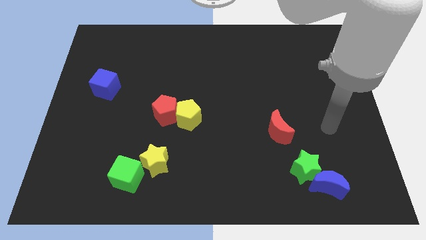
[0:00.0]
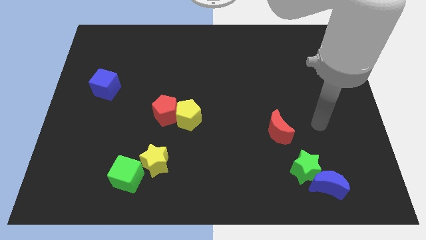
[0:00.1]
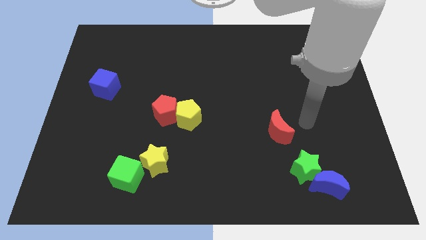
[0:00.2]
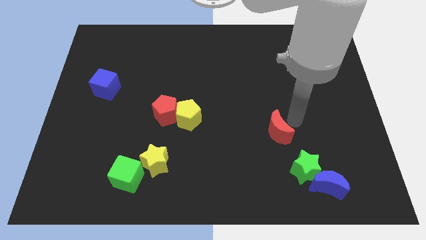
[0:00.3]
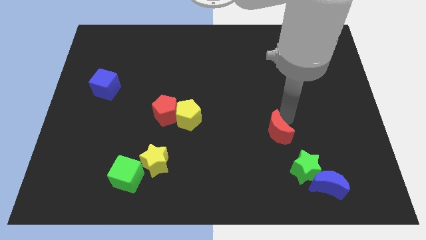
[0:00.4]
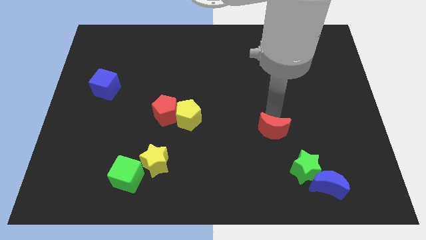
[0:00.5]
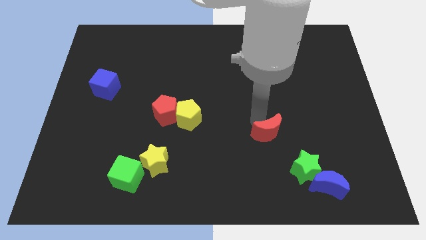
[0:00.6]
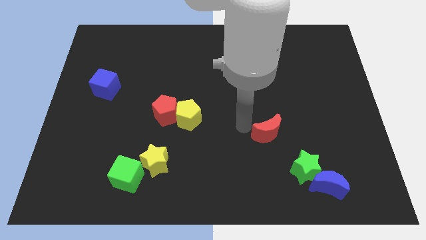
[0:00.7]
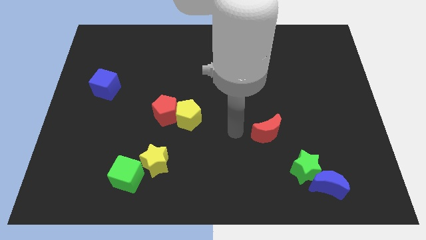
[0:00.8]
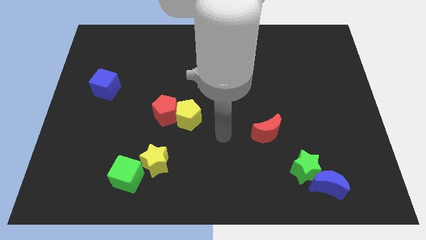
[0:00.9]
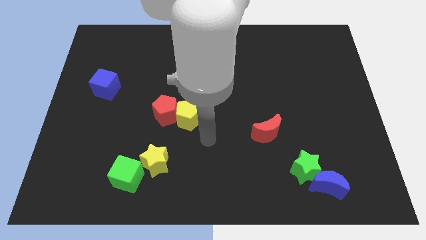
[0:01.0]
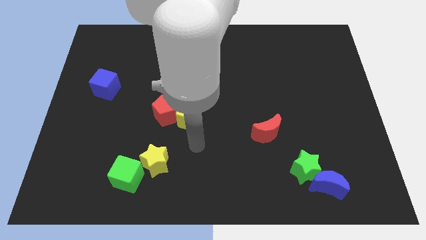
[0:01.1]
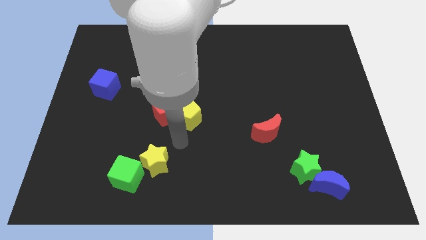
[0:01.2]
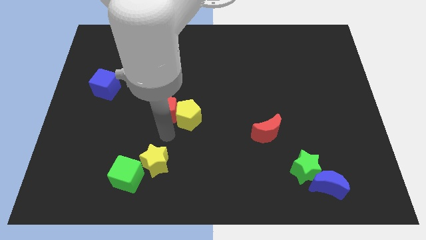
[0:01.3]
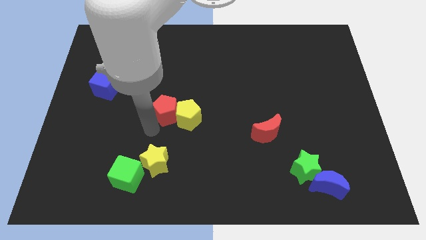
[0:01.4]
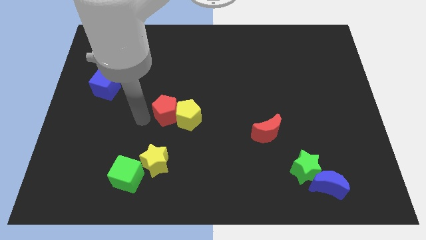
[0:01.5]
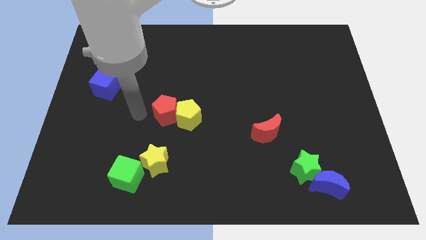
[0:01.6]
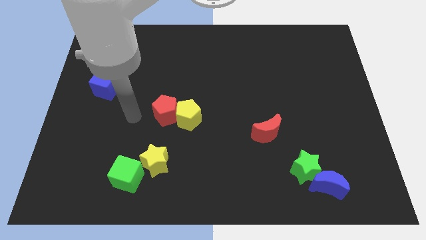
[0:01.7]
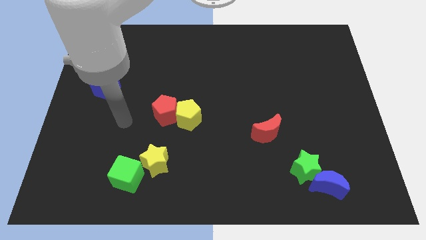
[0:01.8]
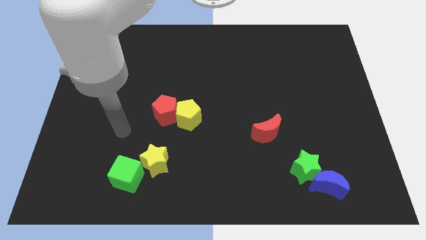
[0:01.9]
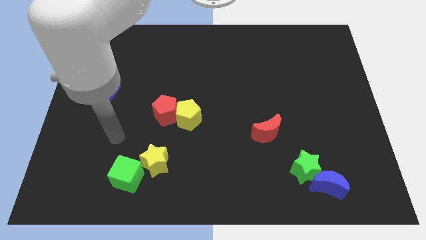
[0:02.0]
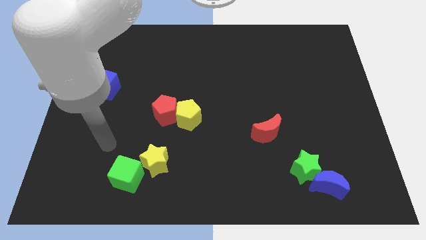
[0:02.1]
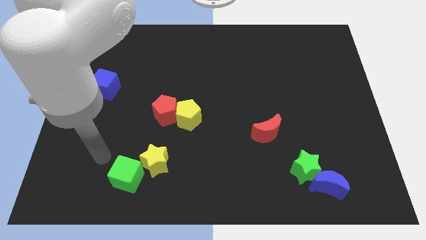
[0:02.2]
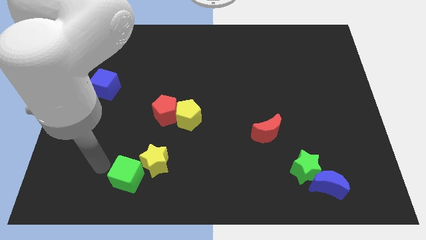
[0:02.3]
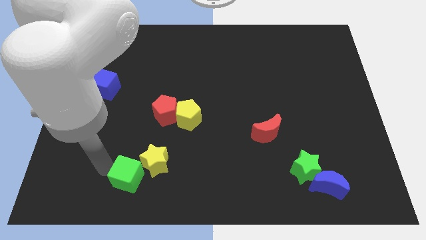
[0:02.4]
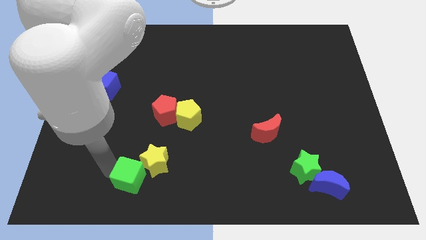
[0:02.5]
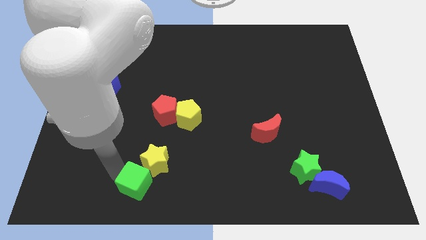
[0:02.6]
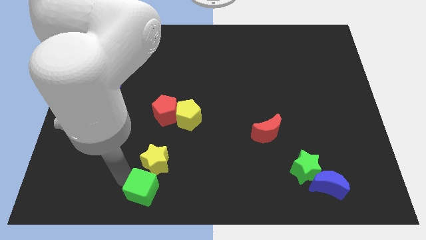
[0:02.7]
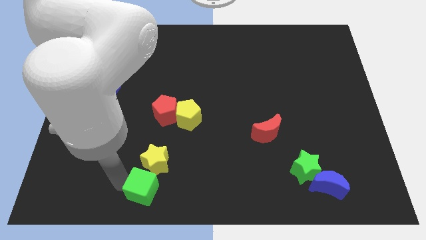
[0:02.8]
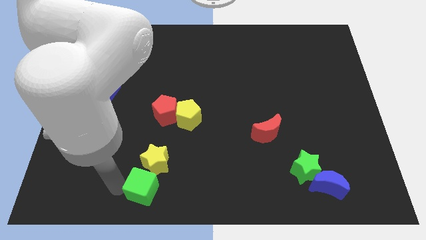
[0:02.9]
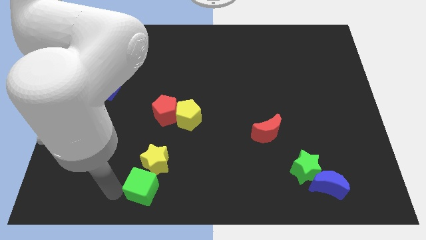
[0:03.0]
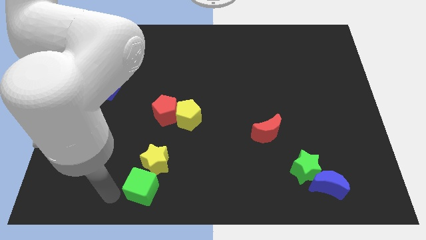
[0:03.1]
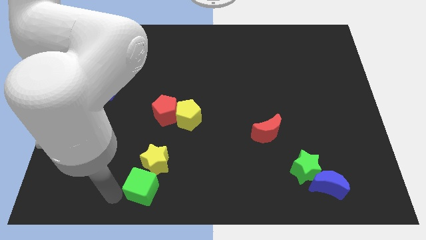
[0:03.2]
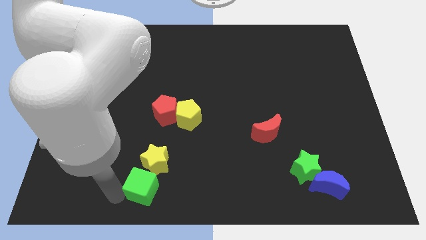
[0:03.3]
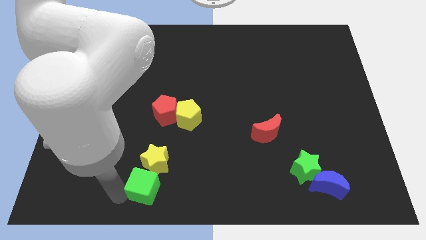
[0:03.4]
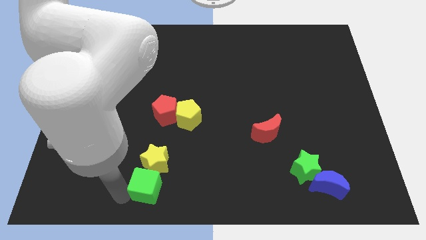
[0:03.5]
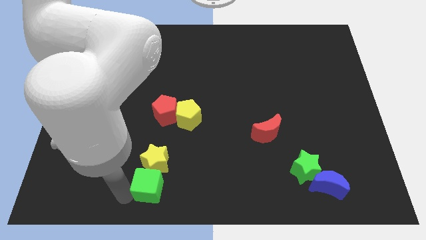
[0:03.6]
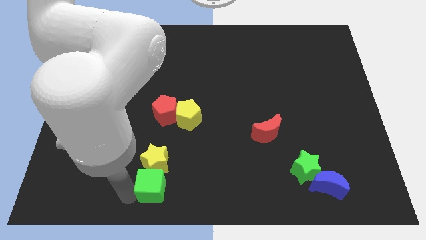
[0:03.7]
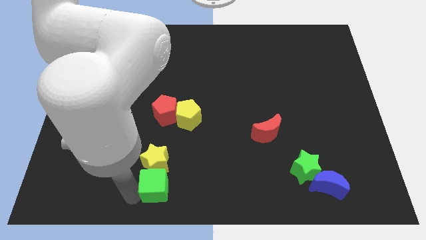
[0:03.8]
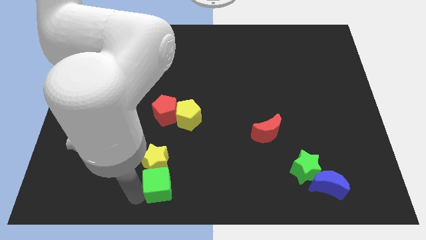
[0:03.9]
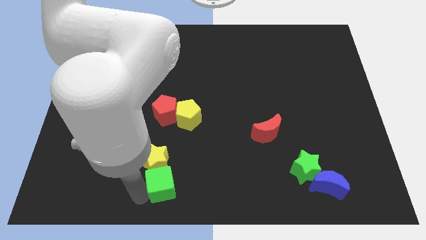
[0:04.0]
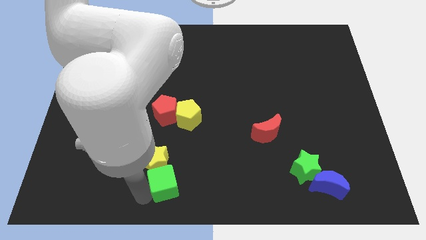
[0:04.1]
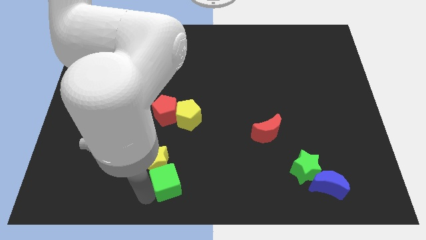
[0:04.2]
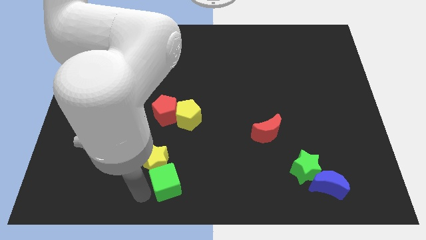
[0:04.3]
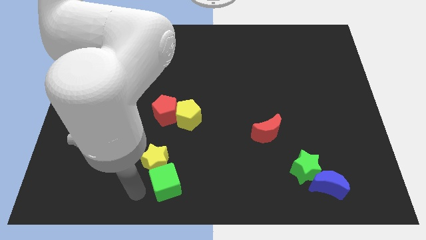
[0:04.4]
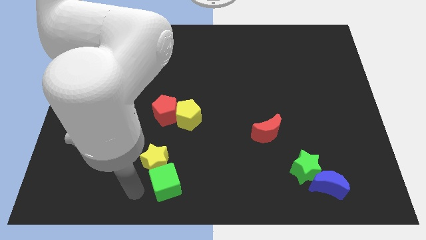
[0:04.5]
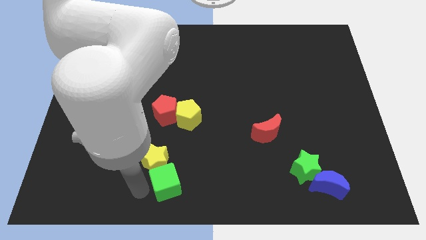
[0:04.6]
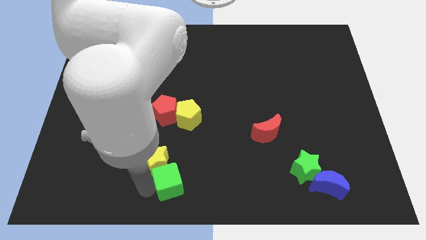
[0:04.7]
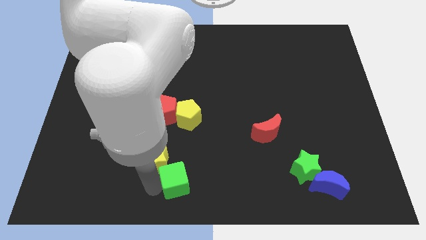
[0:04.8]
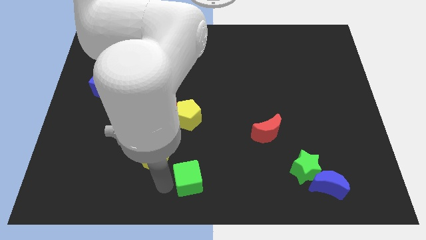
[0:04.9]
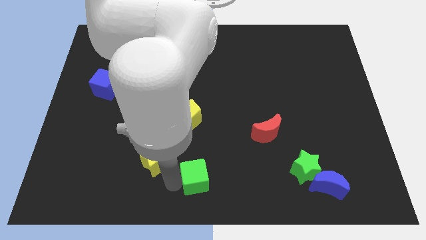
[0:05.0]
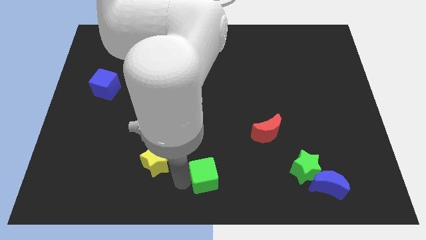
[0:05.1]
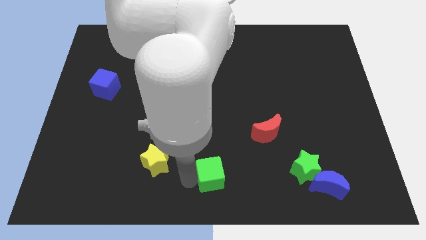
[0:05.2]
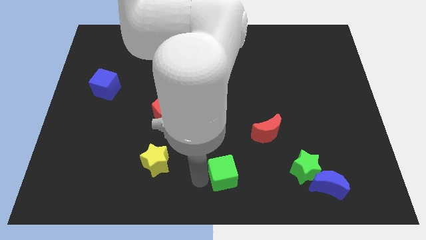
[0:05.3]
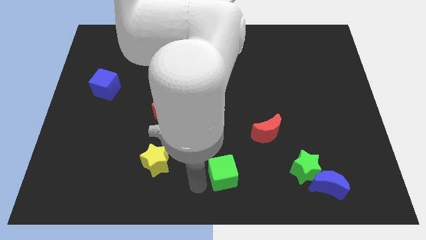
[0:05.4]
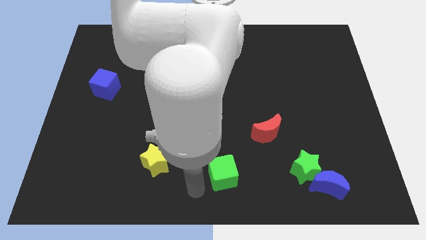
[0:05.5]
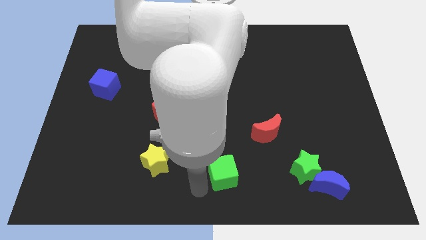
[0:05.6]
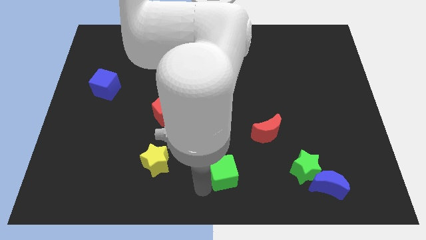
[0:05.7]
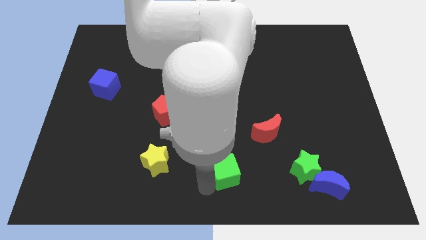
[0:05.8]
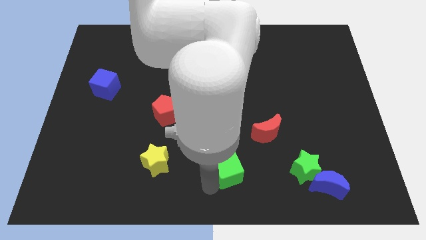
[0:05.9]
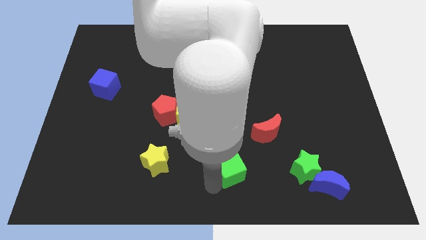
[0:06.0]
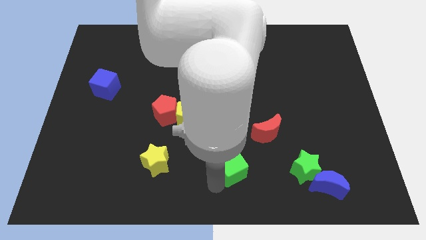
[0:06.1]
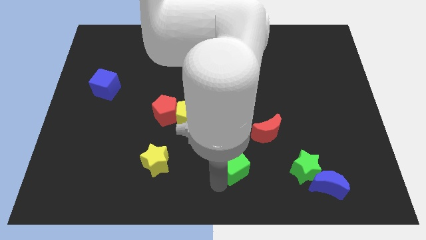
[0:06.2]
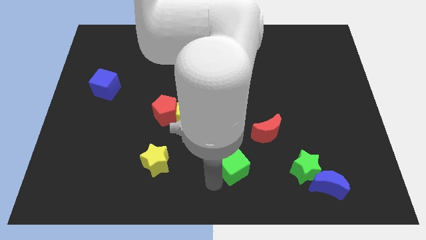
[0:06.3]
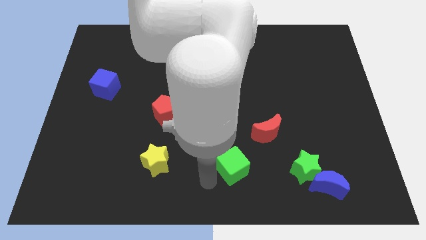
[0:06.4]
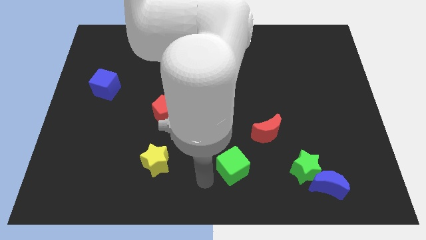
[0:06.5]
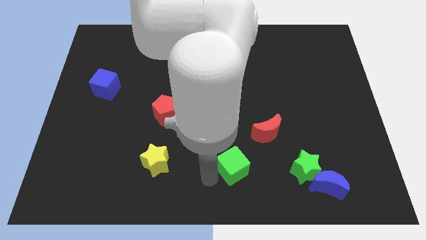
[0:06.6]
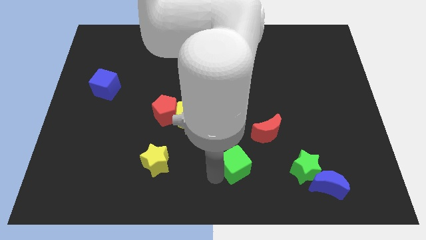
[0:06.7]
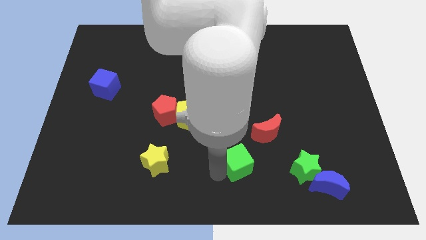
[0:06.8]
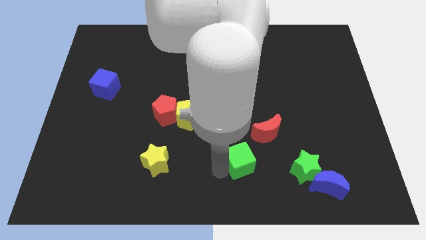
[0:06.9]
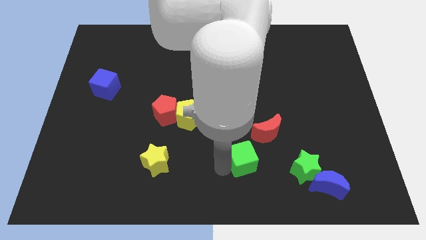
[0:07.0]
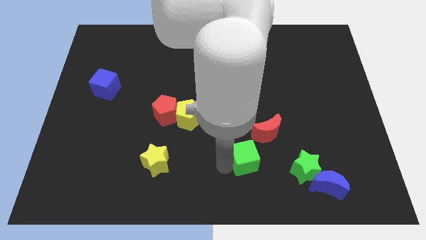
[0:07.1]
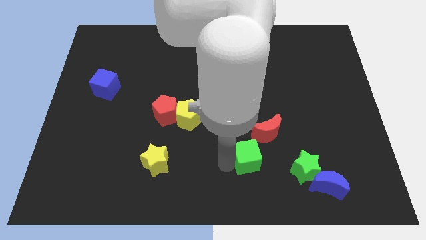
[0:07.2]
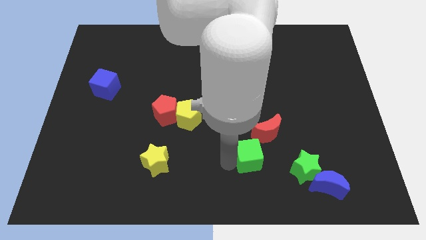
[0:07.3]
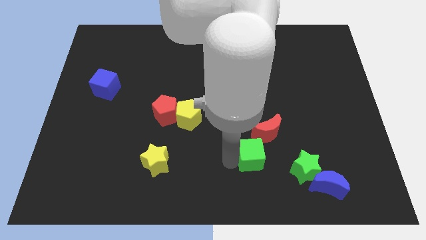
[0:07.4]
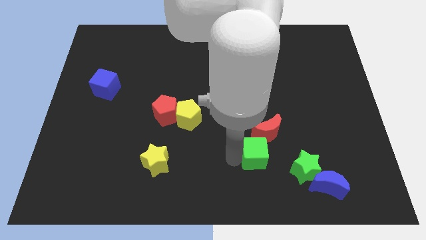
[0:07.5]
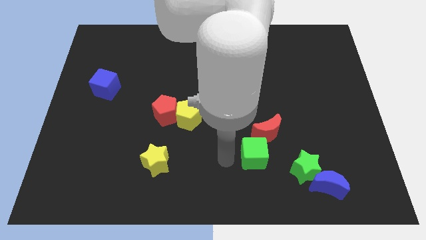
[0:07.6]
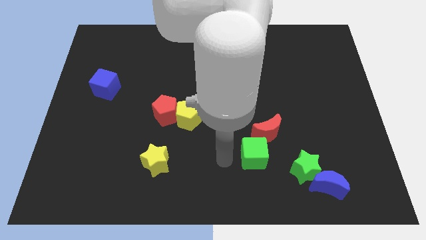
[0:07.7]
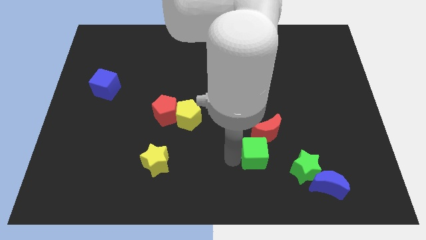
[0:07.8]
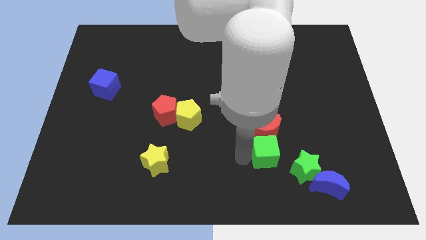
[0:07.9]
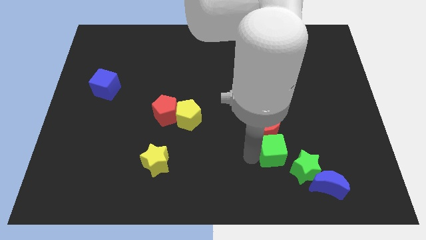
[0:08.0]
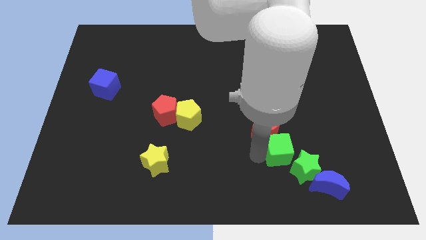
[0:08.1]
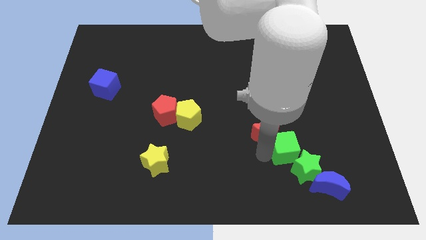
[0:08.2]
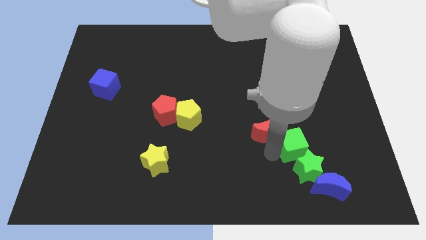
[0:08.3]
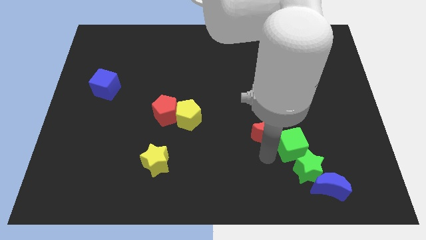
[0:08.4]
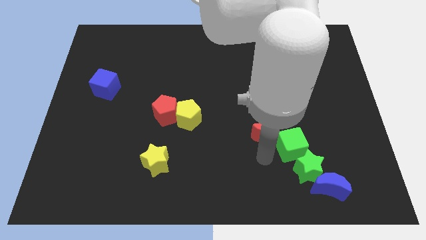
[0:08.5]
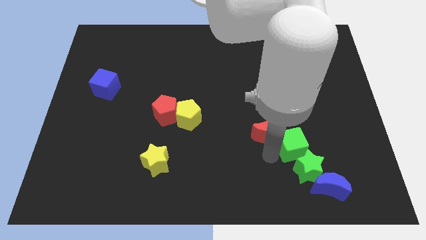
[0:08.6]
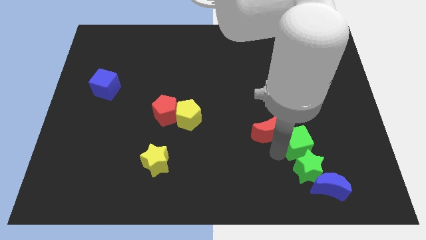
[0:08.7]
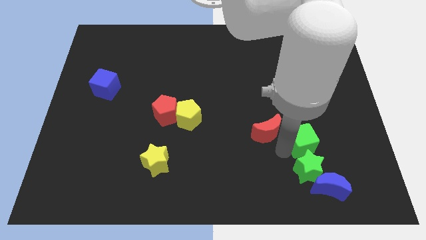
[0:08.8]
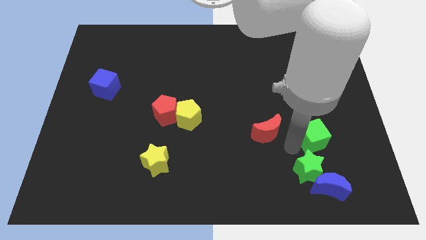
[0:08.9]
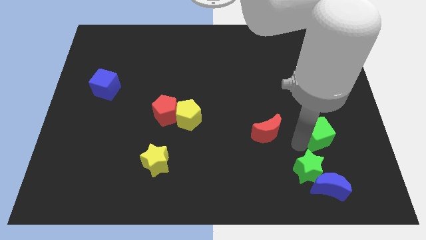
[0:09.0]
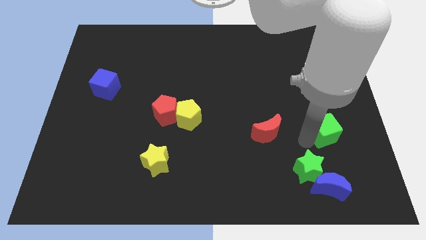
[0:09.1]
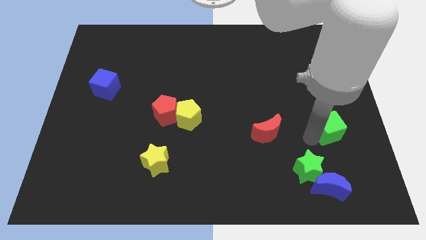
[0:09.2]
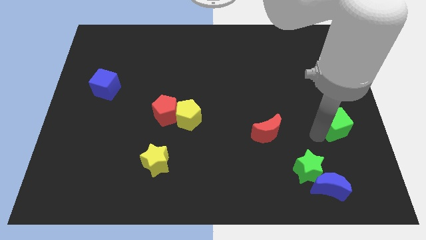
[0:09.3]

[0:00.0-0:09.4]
put the green cube to the center right
